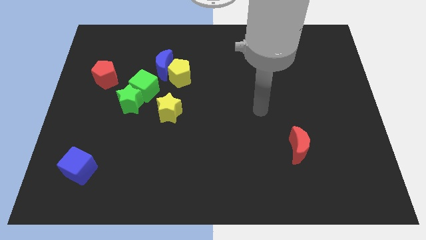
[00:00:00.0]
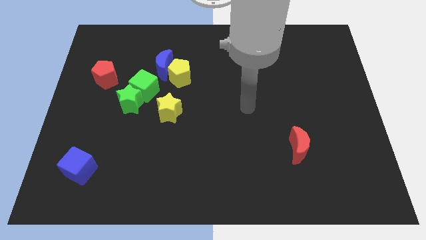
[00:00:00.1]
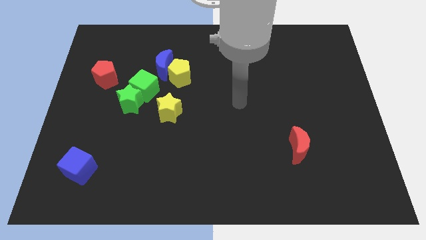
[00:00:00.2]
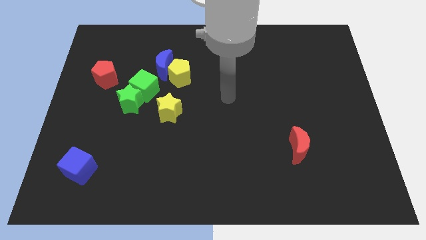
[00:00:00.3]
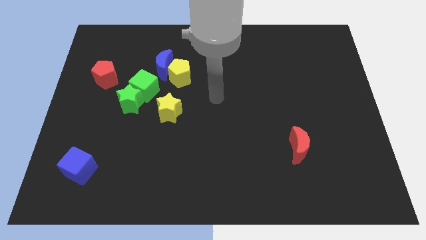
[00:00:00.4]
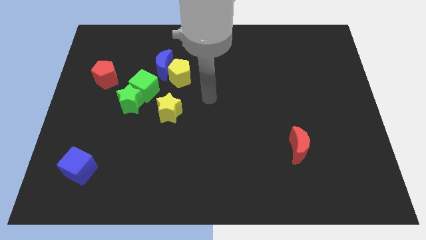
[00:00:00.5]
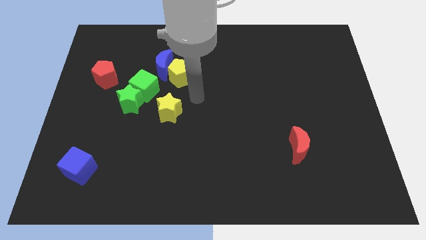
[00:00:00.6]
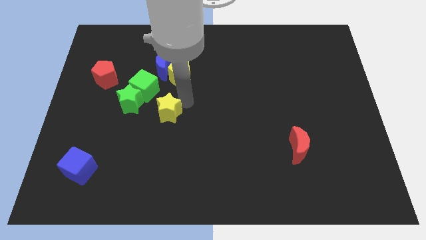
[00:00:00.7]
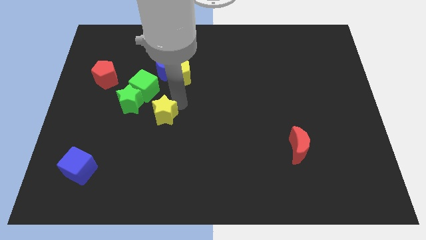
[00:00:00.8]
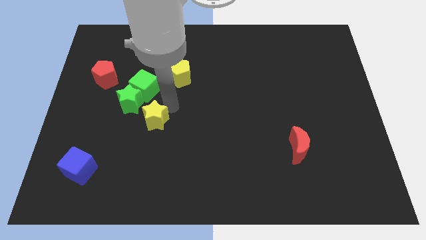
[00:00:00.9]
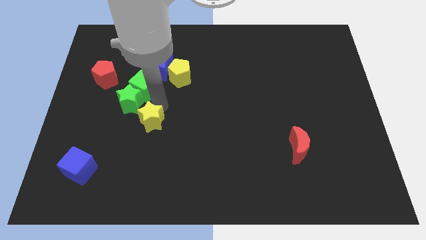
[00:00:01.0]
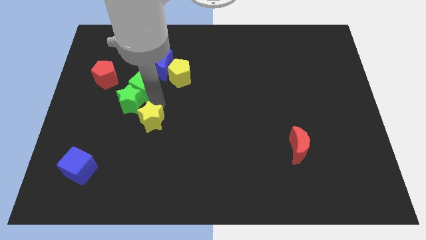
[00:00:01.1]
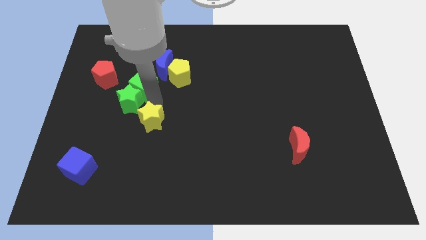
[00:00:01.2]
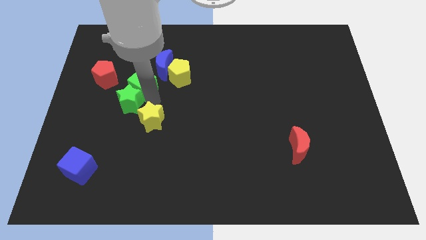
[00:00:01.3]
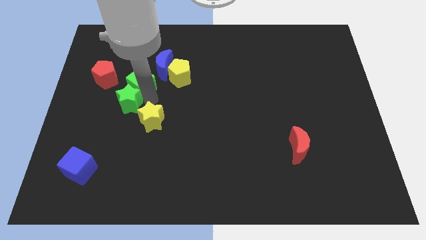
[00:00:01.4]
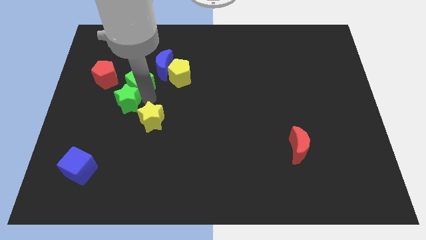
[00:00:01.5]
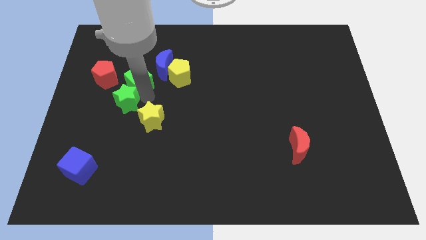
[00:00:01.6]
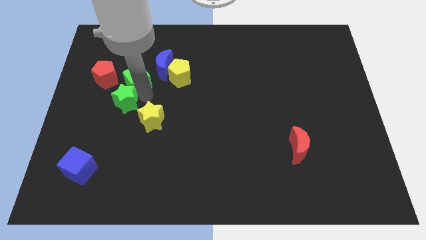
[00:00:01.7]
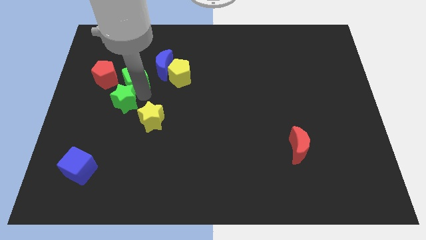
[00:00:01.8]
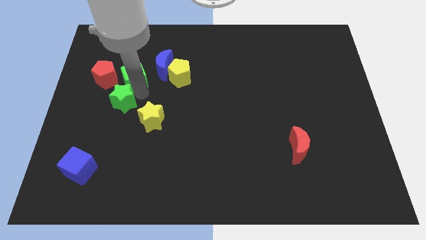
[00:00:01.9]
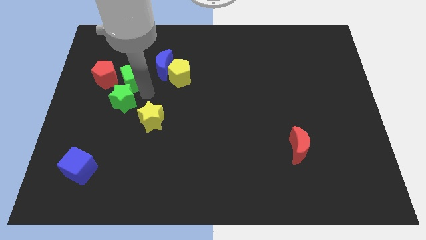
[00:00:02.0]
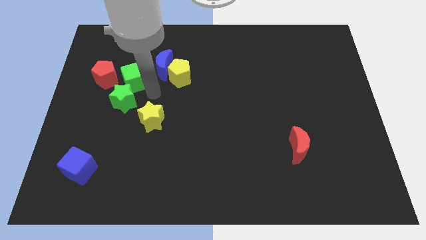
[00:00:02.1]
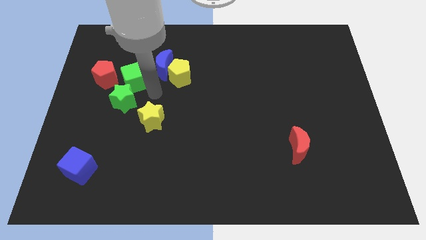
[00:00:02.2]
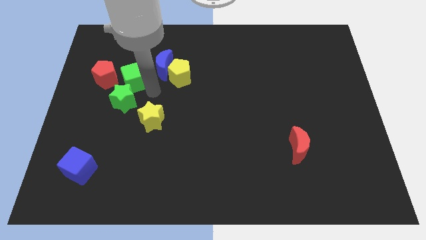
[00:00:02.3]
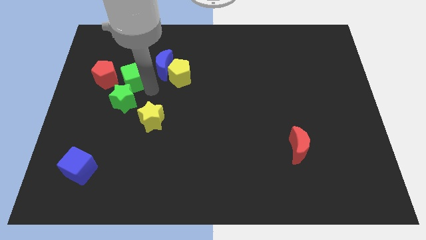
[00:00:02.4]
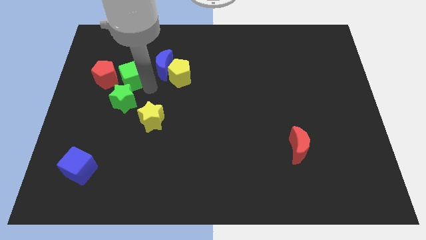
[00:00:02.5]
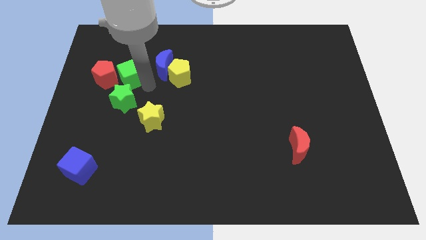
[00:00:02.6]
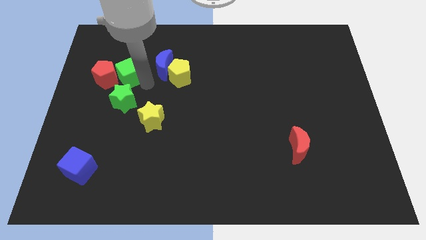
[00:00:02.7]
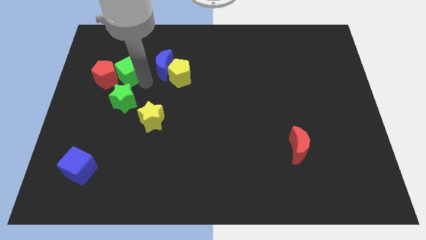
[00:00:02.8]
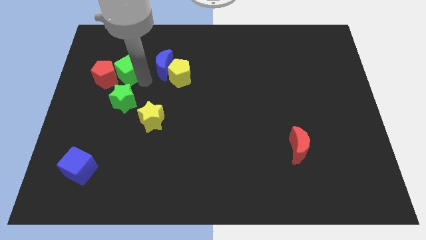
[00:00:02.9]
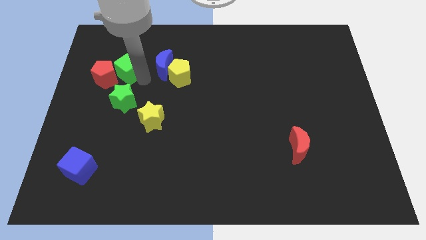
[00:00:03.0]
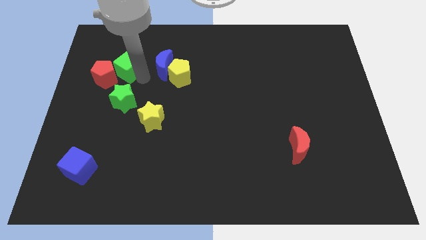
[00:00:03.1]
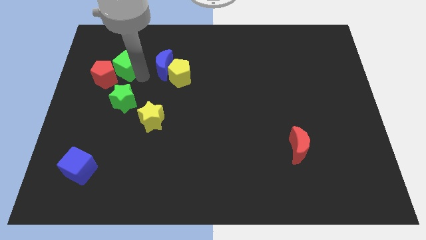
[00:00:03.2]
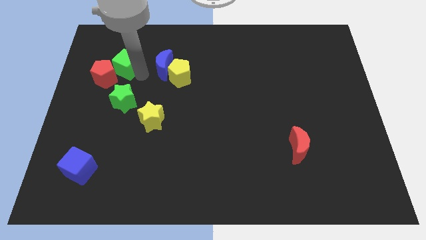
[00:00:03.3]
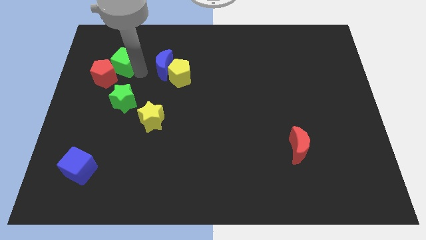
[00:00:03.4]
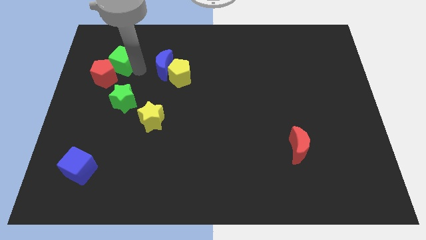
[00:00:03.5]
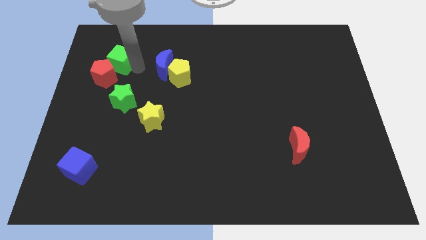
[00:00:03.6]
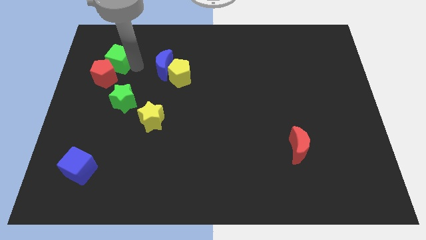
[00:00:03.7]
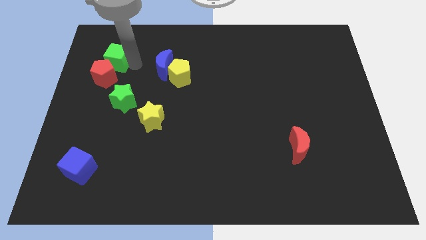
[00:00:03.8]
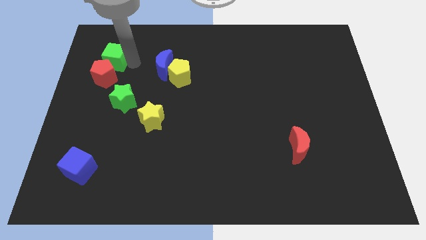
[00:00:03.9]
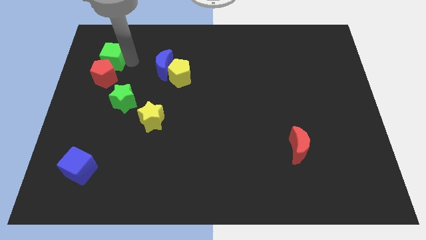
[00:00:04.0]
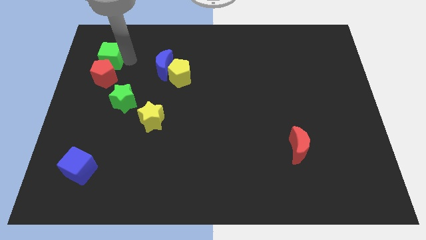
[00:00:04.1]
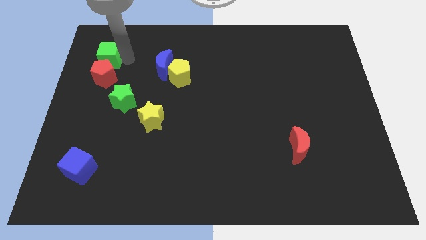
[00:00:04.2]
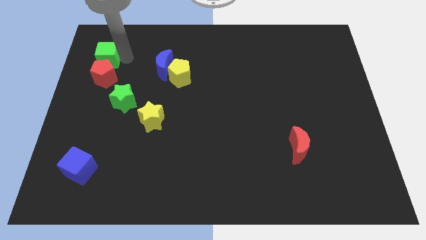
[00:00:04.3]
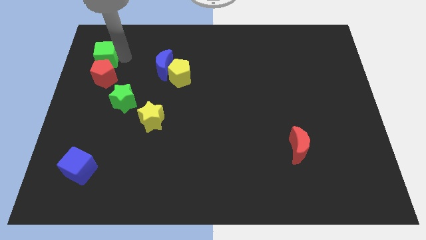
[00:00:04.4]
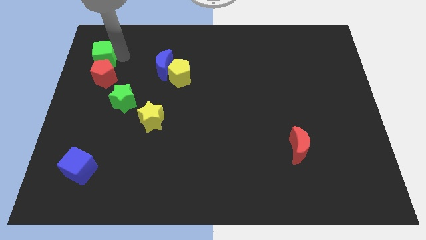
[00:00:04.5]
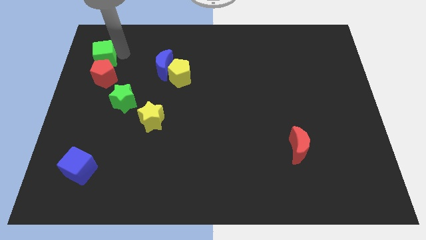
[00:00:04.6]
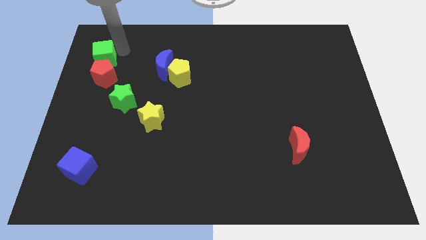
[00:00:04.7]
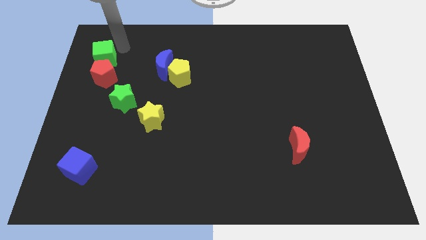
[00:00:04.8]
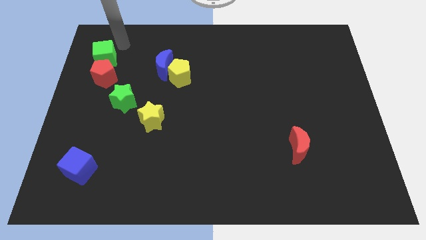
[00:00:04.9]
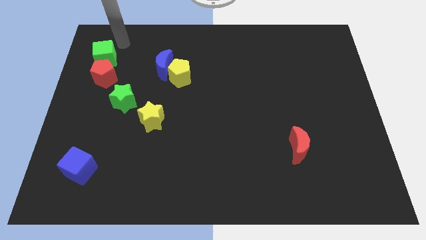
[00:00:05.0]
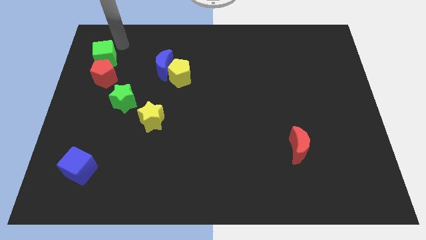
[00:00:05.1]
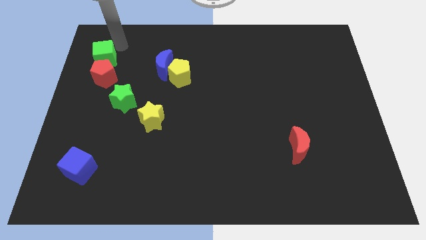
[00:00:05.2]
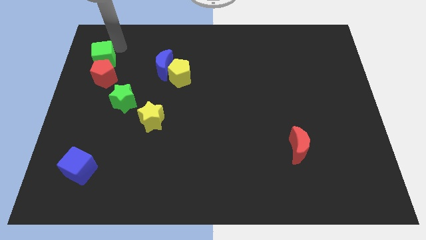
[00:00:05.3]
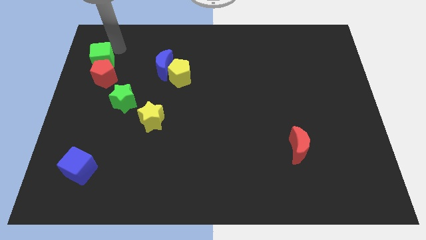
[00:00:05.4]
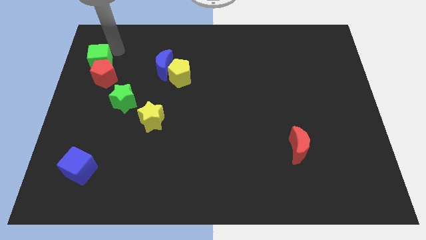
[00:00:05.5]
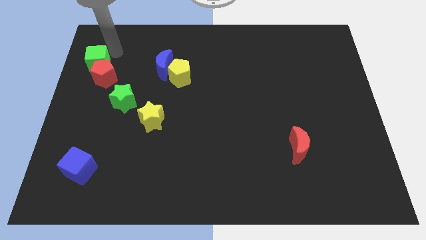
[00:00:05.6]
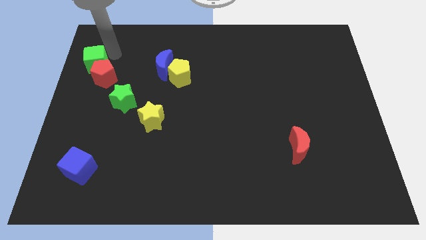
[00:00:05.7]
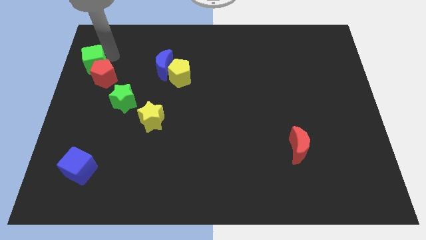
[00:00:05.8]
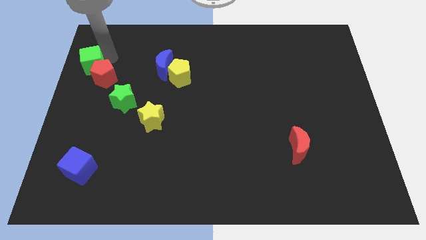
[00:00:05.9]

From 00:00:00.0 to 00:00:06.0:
move the green cube to the left side of the board
